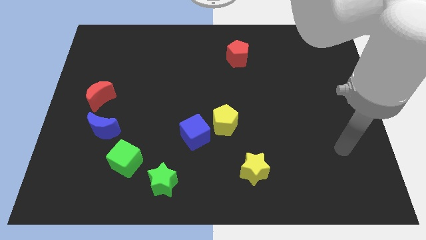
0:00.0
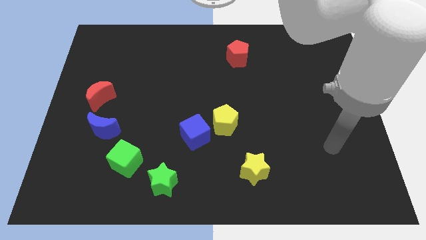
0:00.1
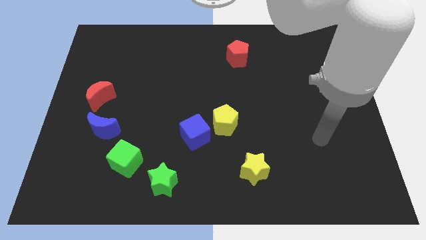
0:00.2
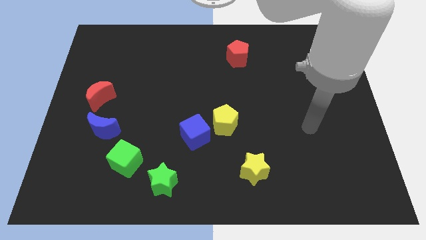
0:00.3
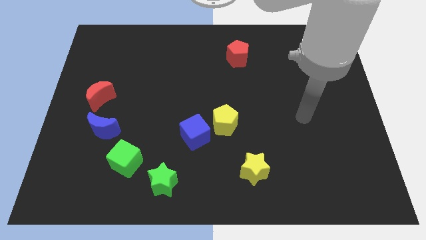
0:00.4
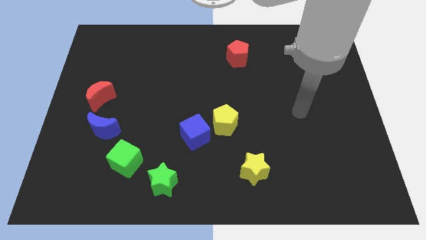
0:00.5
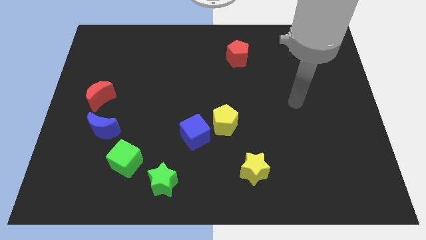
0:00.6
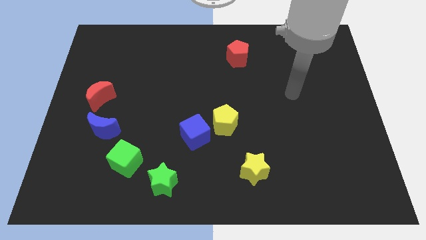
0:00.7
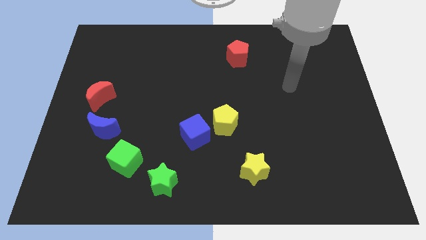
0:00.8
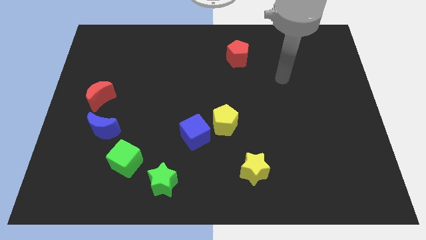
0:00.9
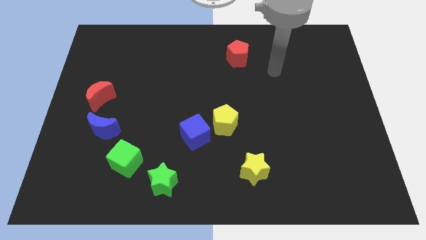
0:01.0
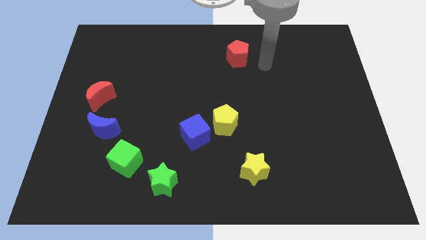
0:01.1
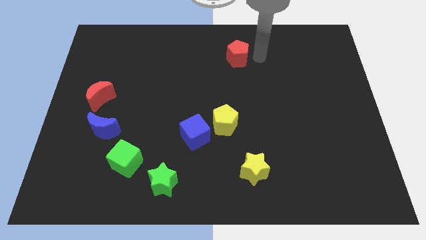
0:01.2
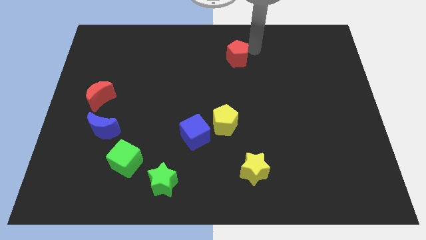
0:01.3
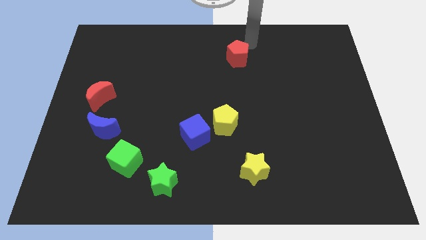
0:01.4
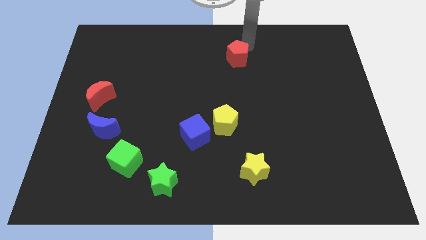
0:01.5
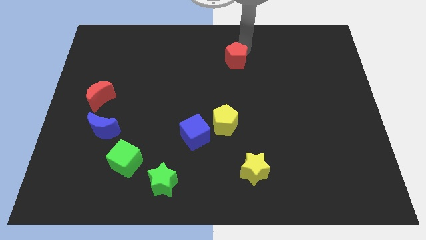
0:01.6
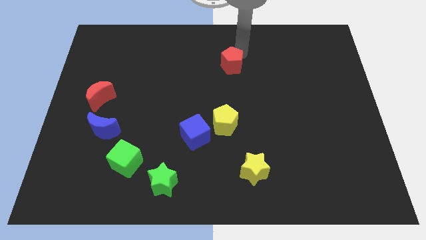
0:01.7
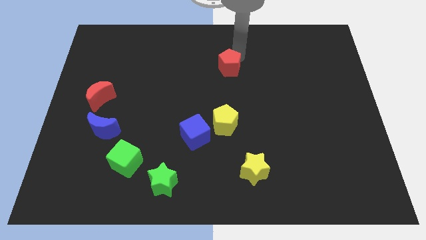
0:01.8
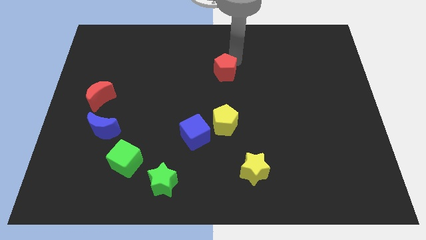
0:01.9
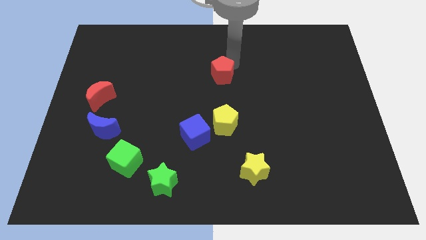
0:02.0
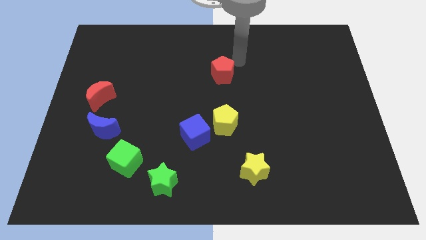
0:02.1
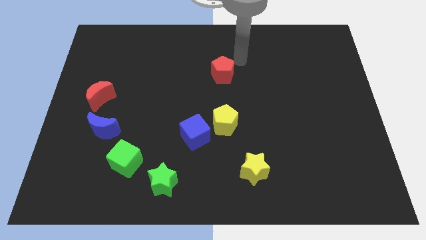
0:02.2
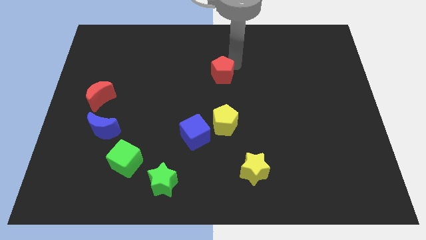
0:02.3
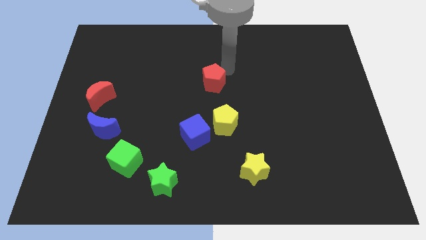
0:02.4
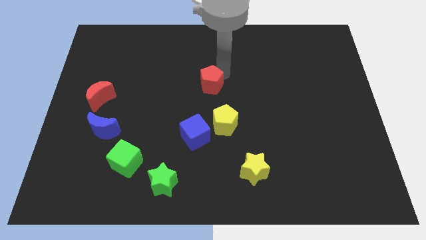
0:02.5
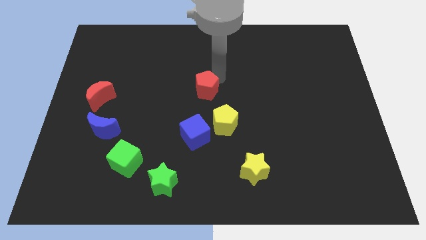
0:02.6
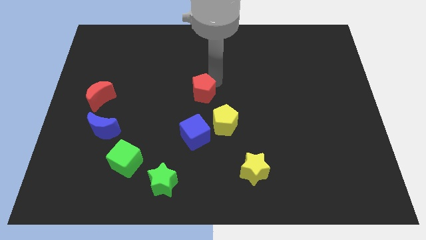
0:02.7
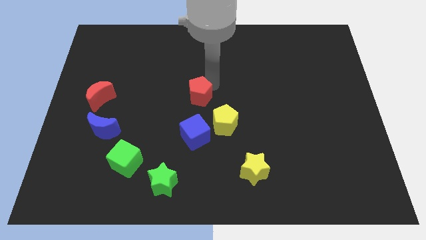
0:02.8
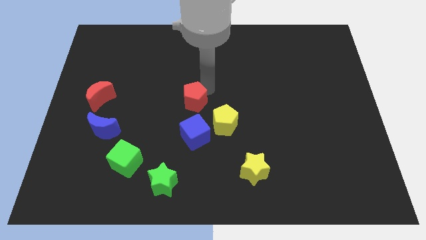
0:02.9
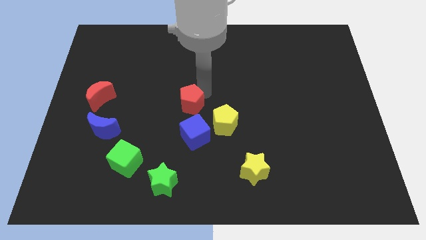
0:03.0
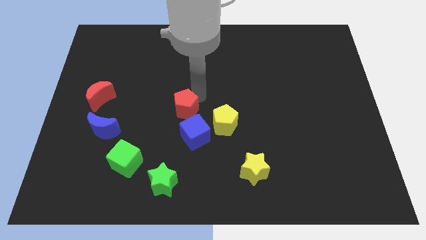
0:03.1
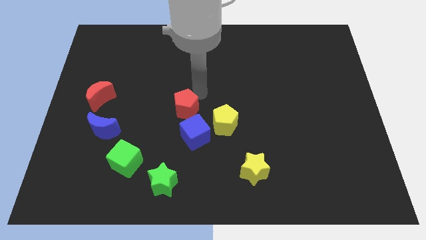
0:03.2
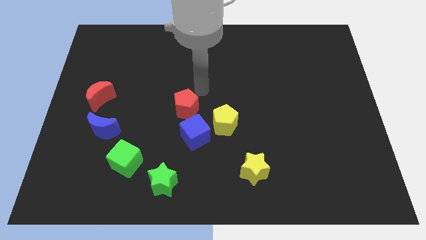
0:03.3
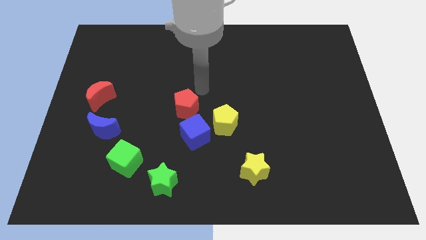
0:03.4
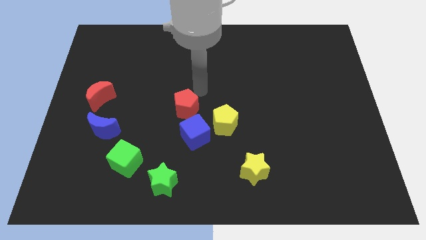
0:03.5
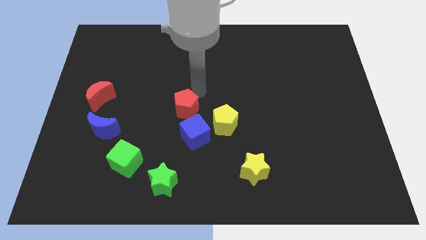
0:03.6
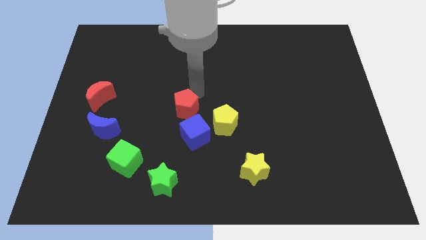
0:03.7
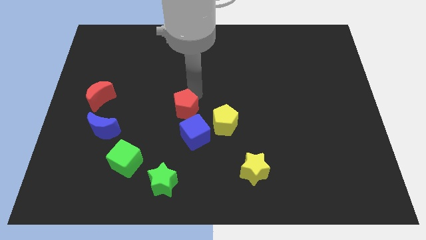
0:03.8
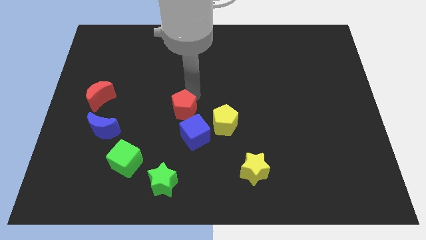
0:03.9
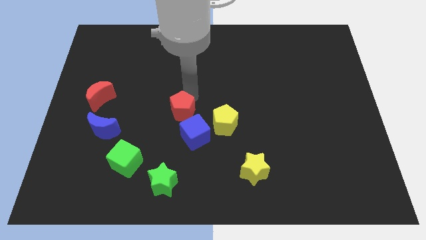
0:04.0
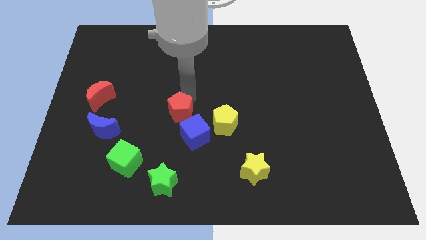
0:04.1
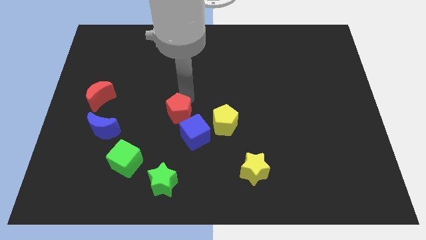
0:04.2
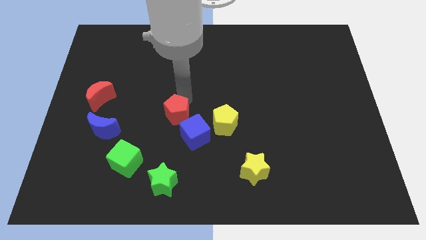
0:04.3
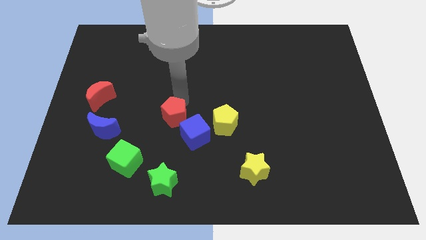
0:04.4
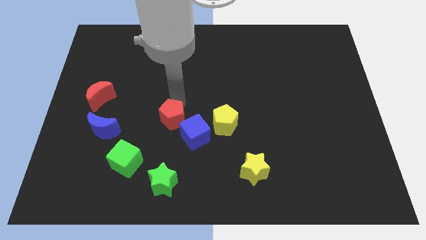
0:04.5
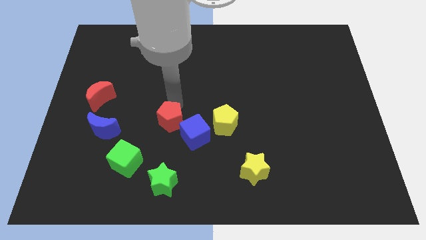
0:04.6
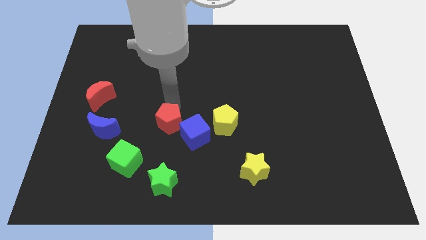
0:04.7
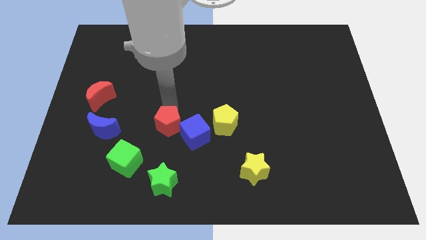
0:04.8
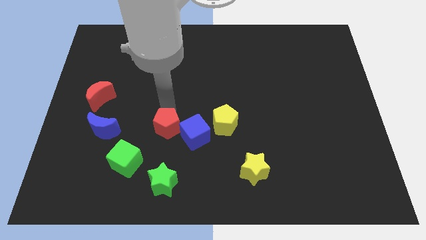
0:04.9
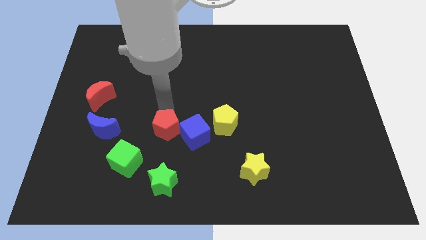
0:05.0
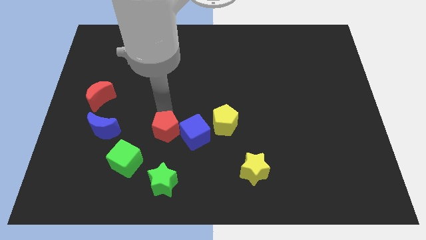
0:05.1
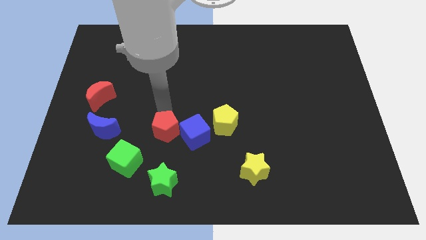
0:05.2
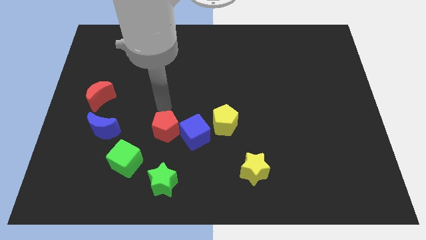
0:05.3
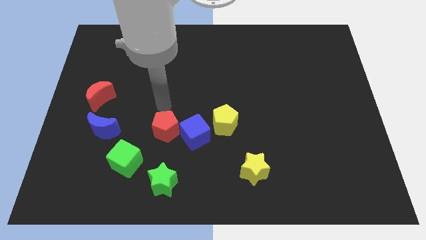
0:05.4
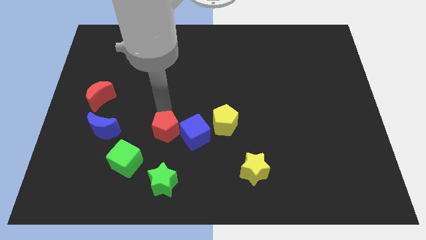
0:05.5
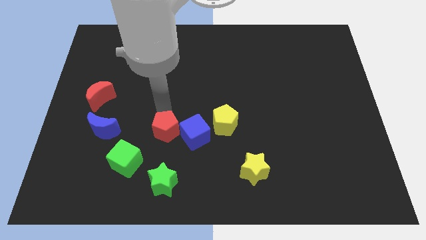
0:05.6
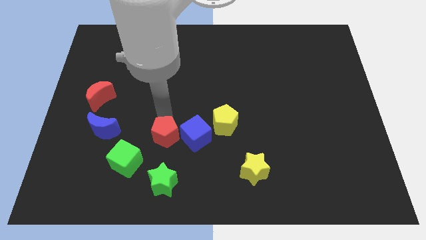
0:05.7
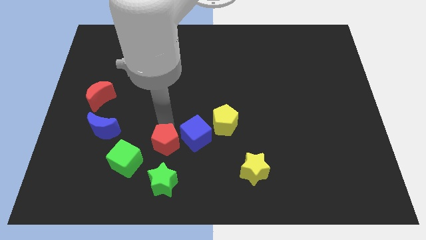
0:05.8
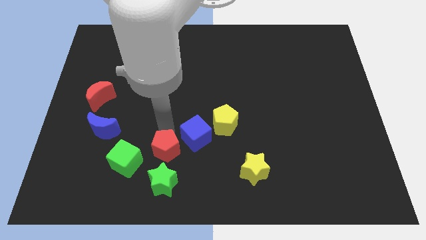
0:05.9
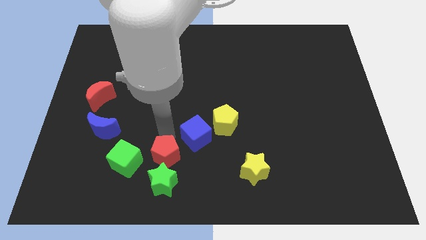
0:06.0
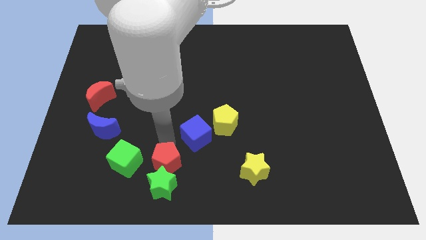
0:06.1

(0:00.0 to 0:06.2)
slide the red pentagon next to the green star

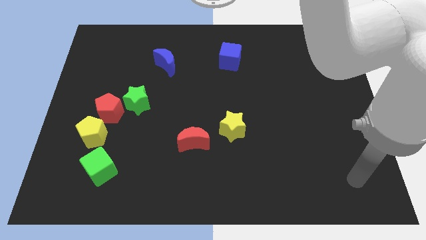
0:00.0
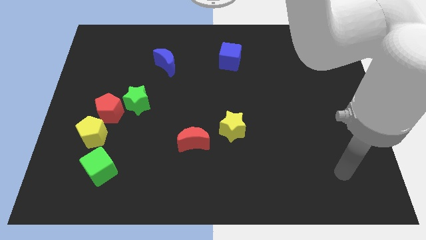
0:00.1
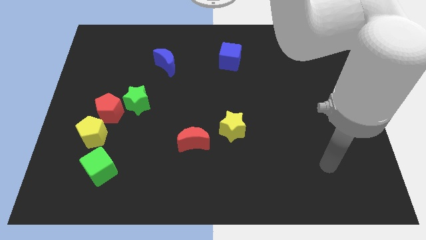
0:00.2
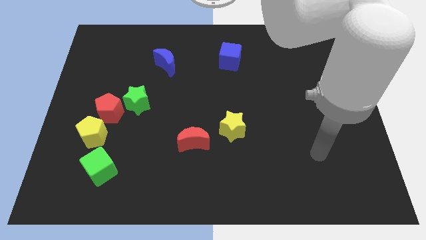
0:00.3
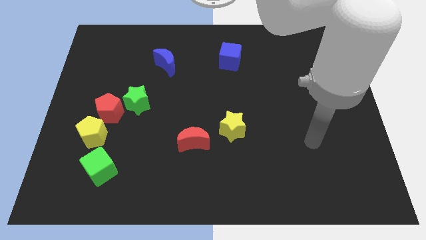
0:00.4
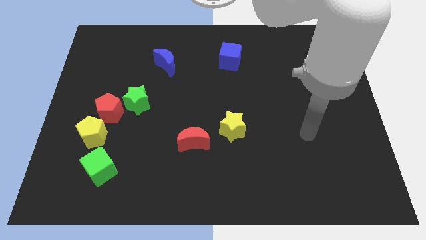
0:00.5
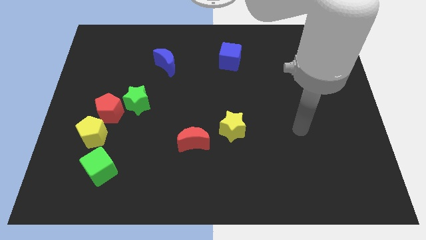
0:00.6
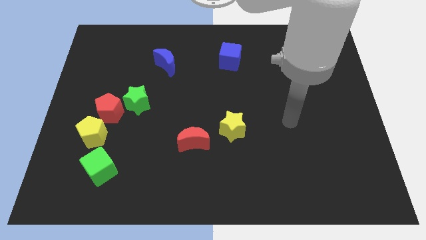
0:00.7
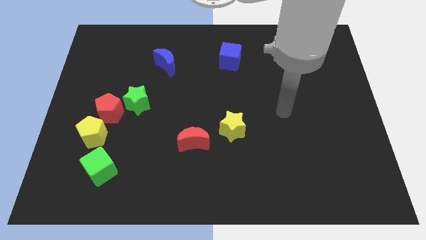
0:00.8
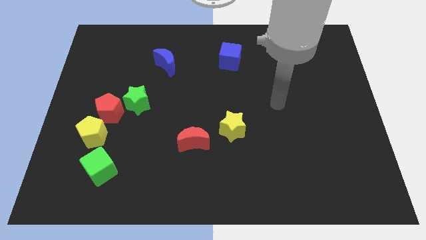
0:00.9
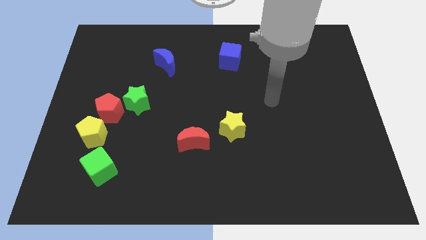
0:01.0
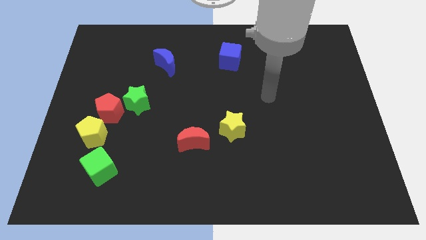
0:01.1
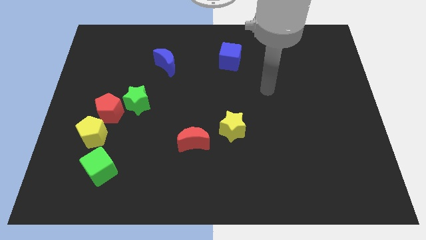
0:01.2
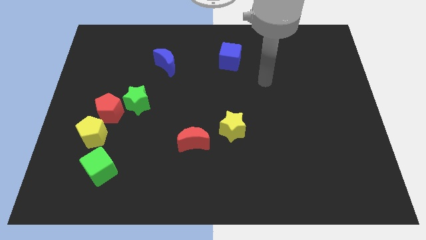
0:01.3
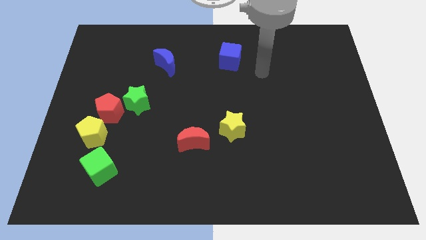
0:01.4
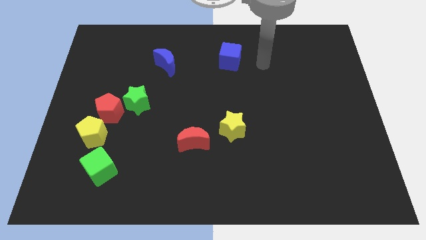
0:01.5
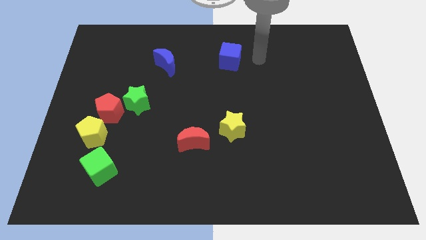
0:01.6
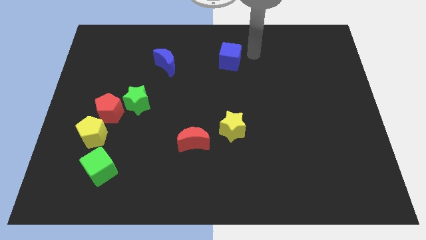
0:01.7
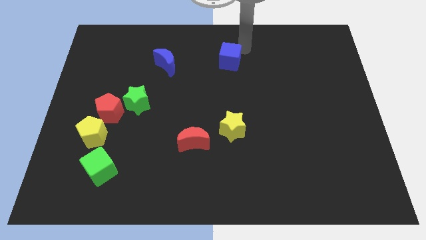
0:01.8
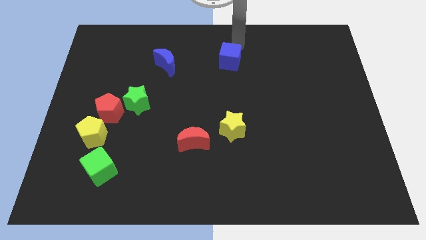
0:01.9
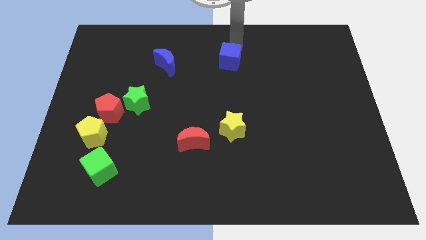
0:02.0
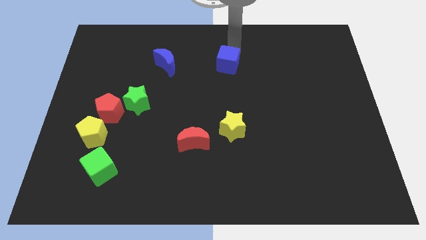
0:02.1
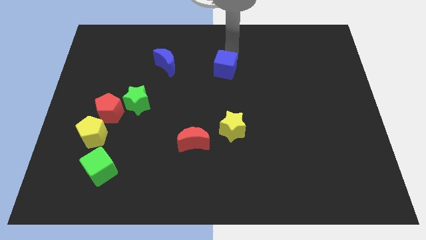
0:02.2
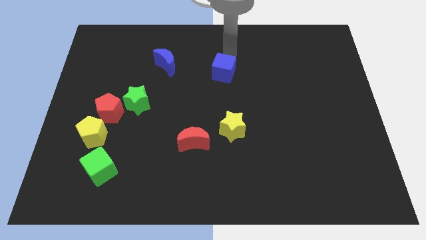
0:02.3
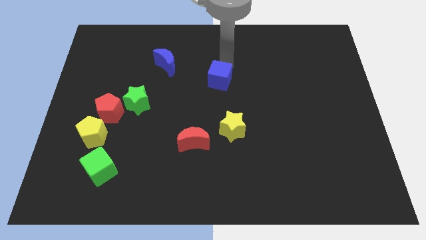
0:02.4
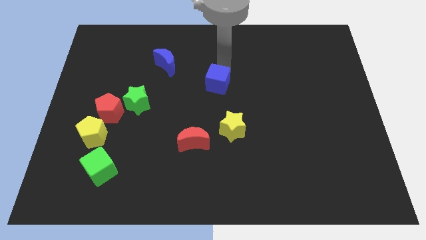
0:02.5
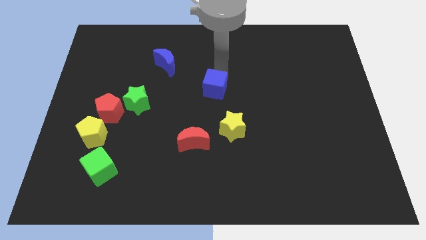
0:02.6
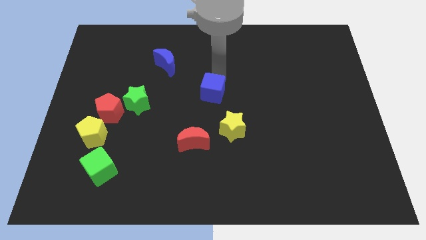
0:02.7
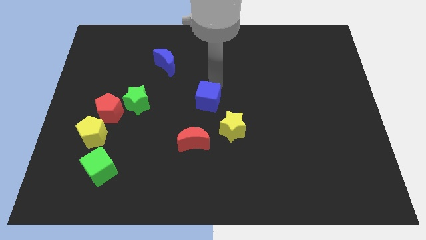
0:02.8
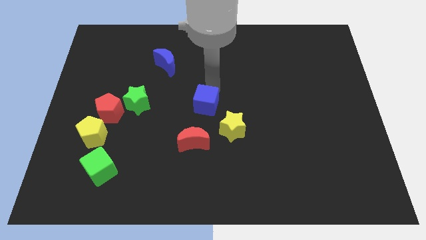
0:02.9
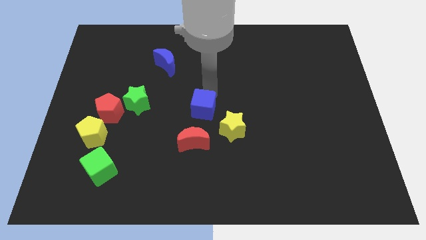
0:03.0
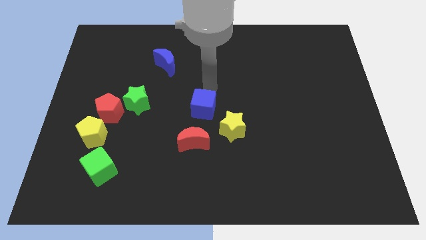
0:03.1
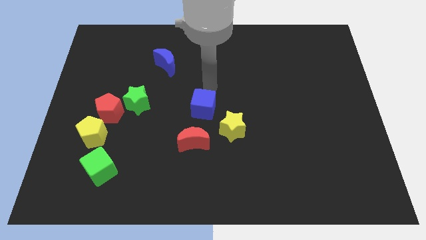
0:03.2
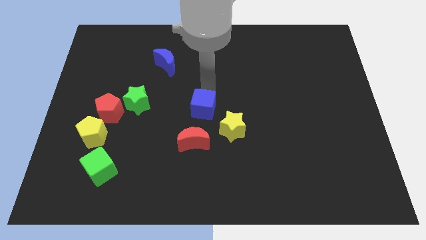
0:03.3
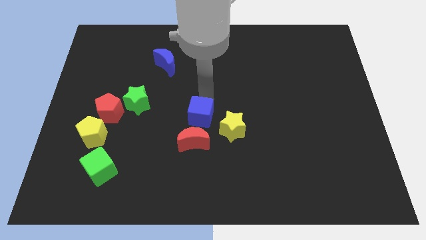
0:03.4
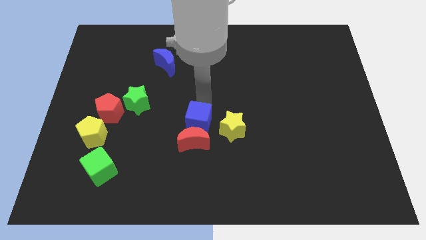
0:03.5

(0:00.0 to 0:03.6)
move the blue cube close to the red moon
